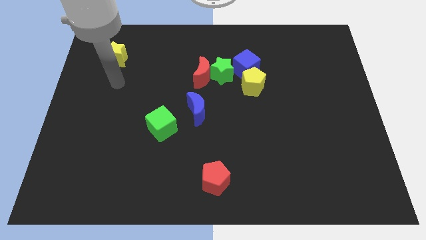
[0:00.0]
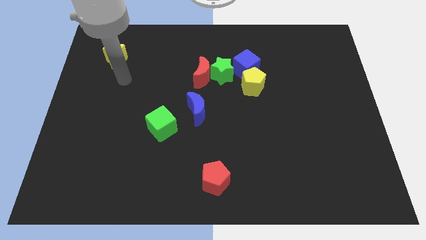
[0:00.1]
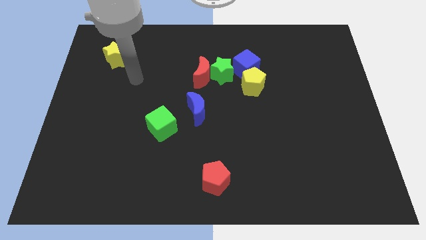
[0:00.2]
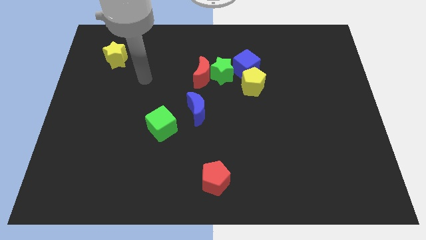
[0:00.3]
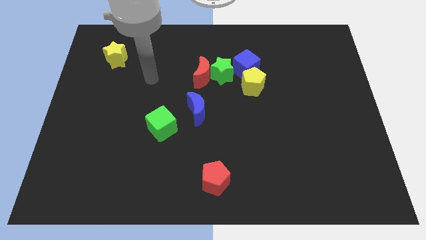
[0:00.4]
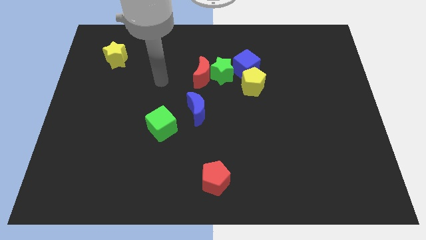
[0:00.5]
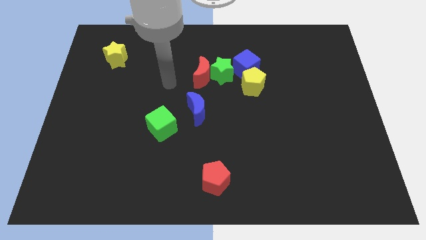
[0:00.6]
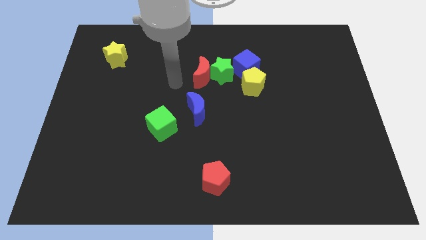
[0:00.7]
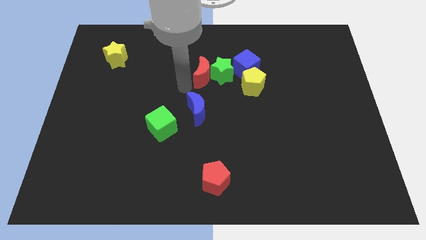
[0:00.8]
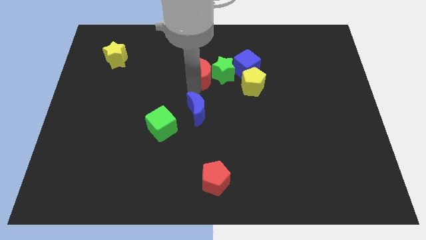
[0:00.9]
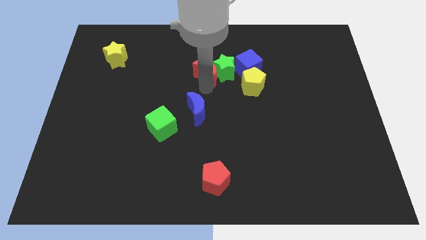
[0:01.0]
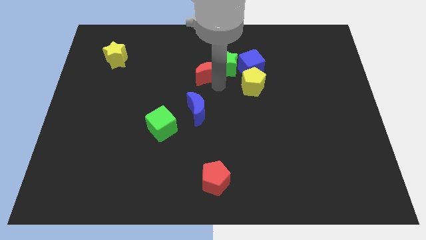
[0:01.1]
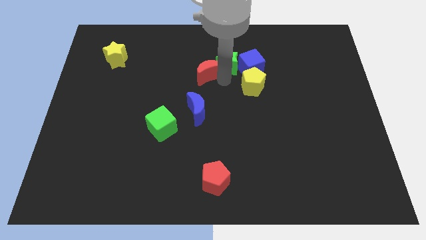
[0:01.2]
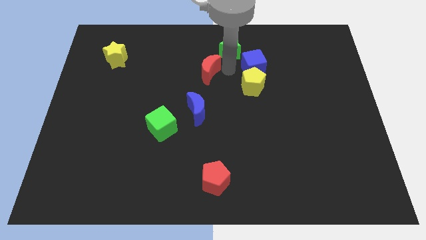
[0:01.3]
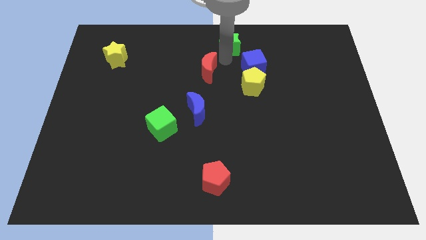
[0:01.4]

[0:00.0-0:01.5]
move the red moon away from the green star

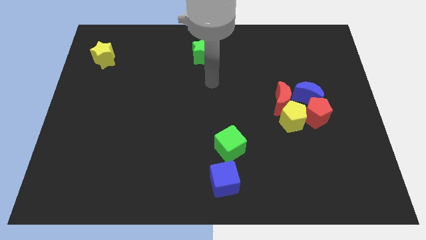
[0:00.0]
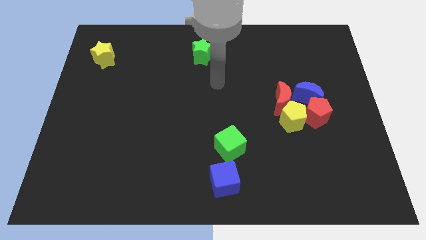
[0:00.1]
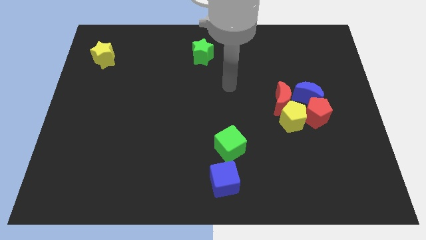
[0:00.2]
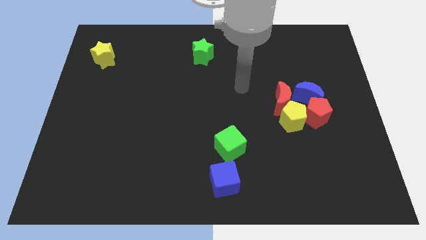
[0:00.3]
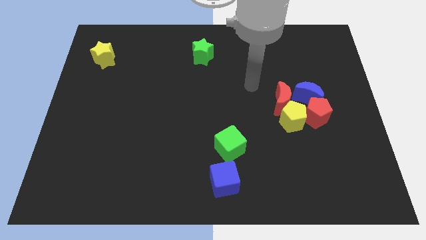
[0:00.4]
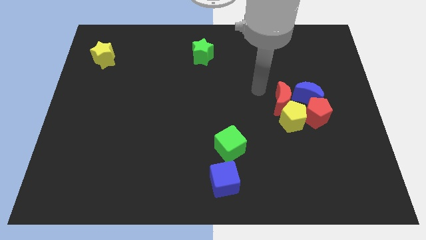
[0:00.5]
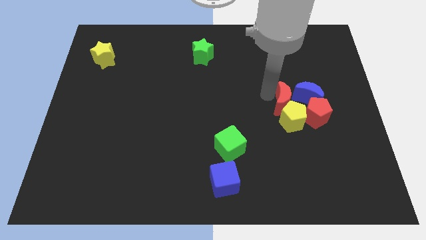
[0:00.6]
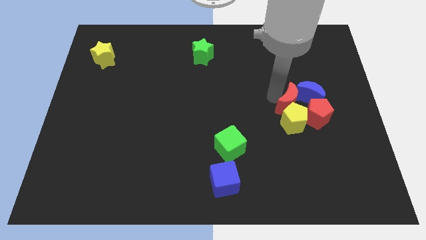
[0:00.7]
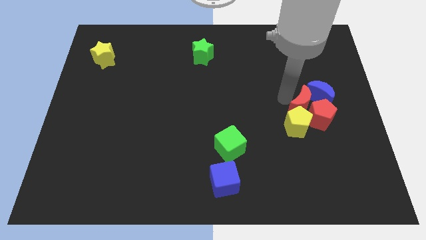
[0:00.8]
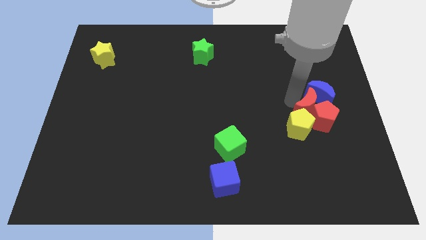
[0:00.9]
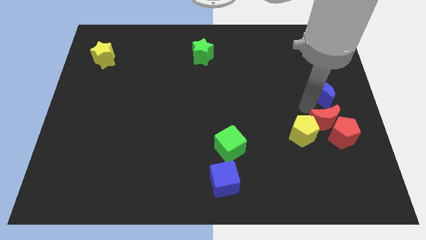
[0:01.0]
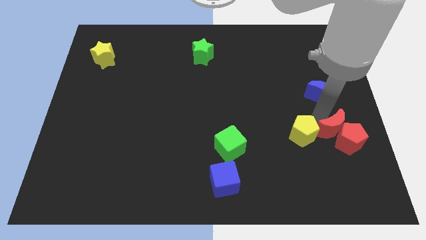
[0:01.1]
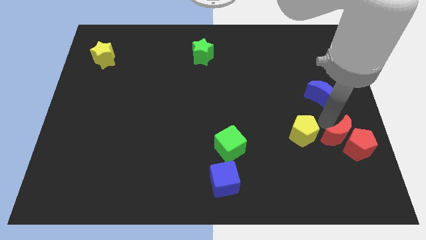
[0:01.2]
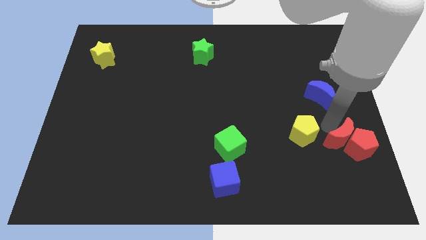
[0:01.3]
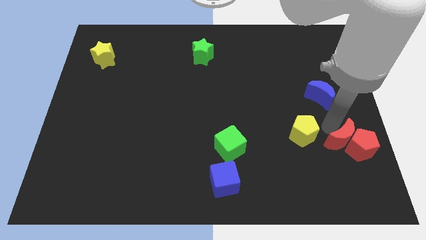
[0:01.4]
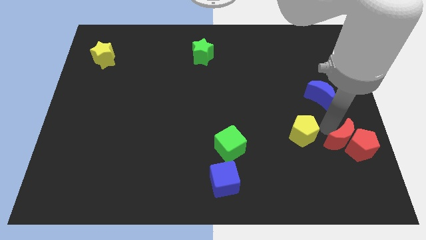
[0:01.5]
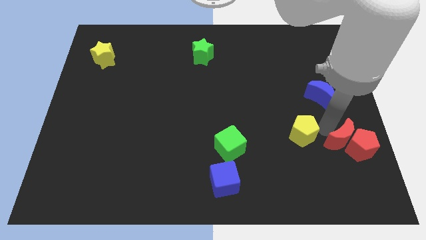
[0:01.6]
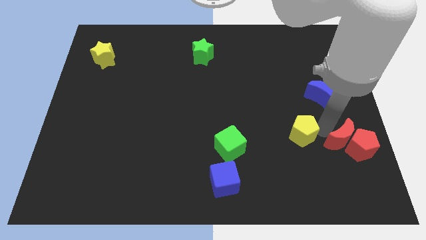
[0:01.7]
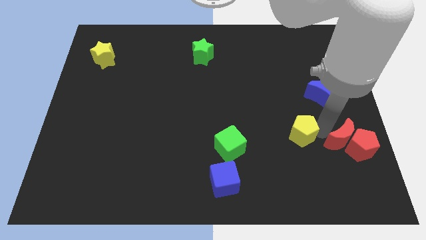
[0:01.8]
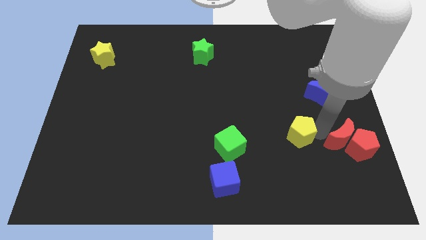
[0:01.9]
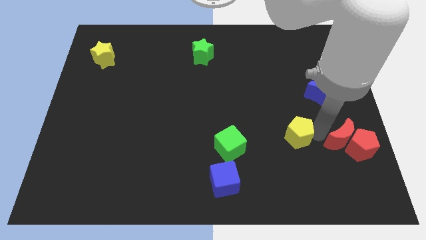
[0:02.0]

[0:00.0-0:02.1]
pull the yellow pentagon apart from the group of blocks

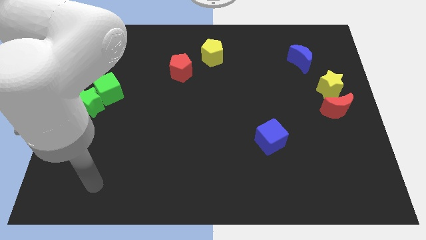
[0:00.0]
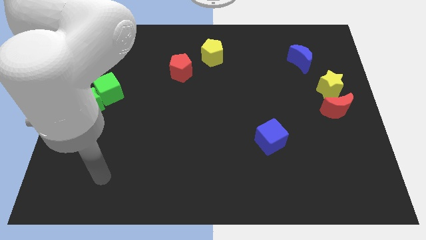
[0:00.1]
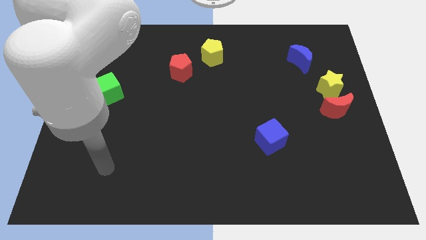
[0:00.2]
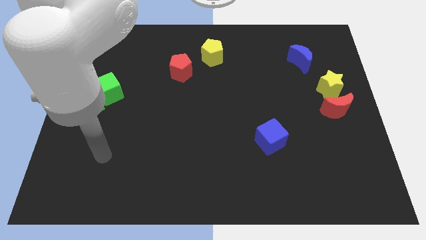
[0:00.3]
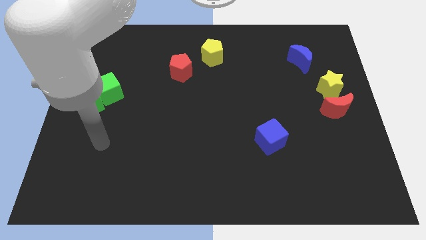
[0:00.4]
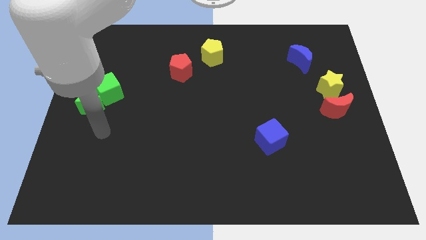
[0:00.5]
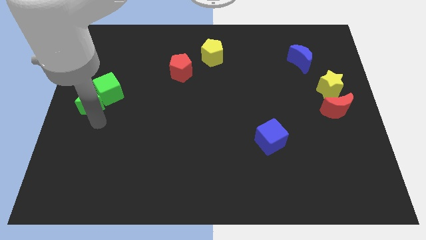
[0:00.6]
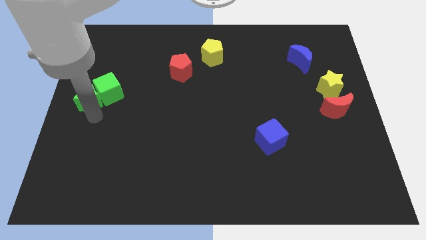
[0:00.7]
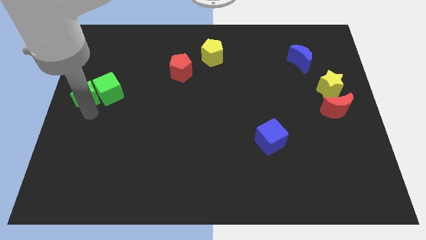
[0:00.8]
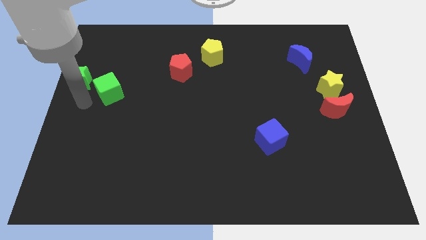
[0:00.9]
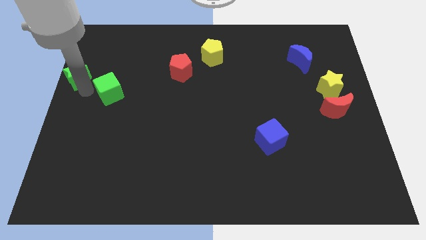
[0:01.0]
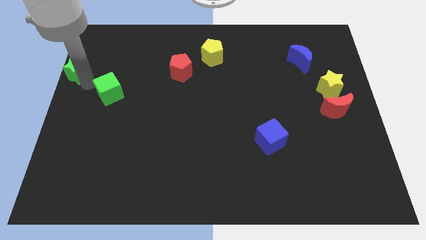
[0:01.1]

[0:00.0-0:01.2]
pull the green cube apart from the green star

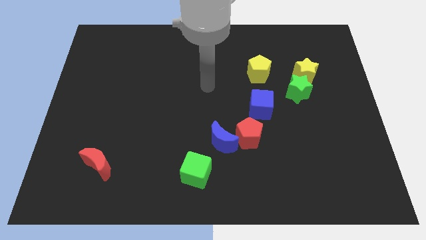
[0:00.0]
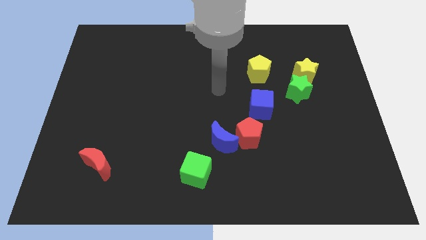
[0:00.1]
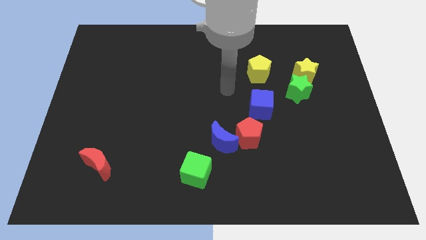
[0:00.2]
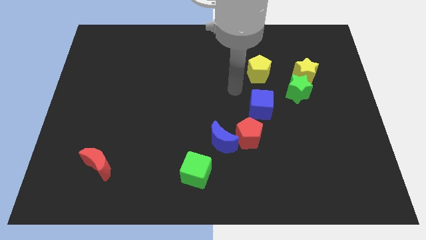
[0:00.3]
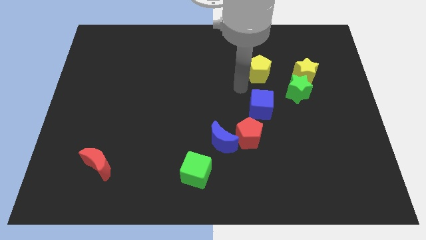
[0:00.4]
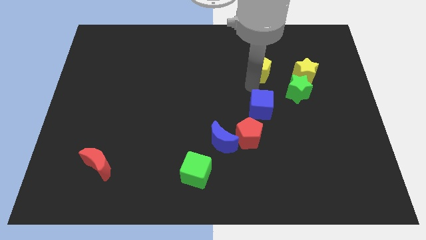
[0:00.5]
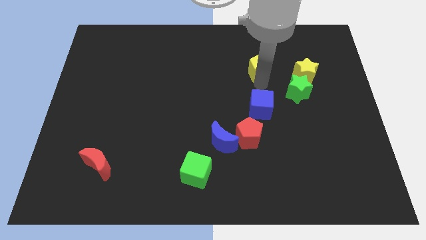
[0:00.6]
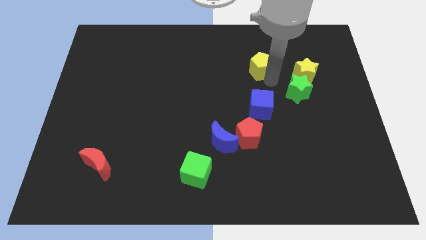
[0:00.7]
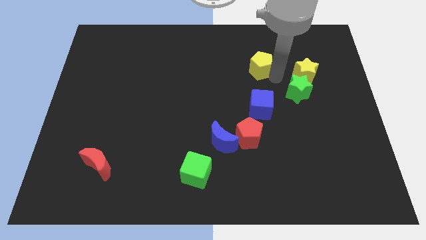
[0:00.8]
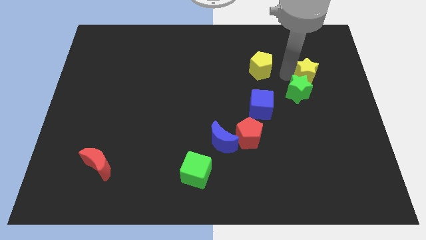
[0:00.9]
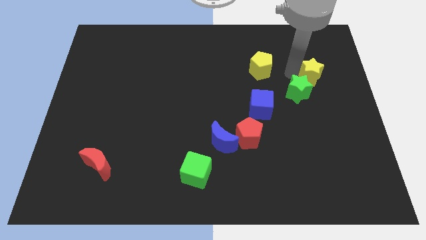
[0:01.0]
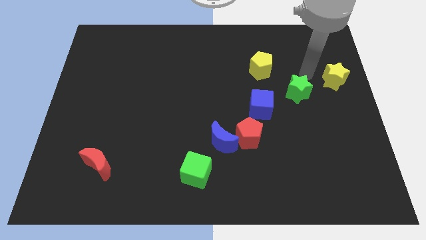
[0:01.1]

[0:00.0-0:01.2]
separate the green star from the yellow star

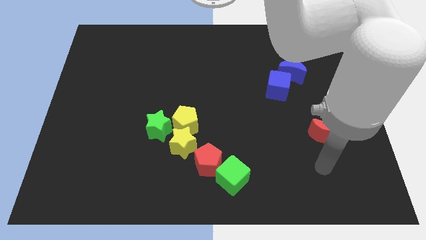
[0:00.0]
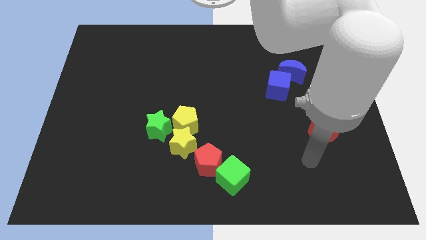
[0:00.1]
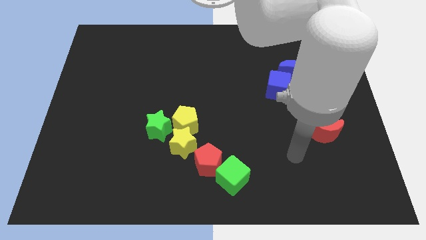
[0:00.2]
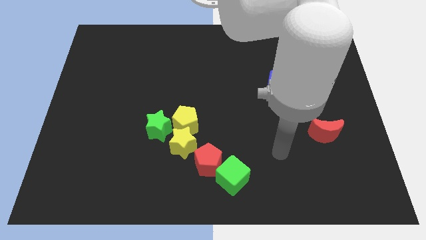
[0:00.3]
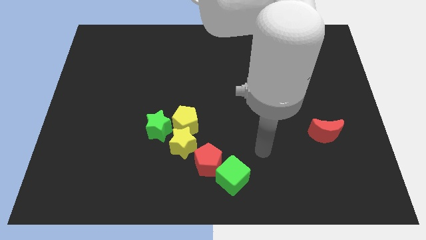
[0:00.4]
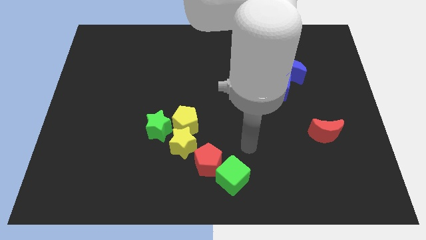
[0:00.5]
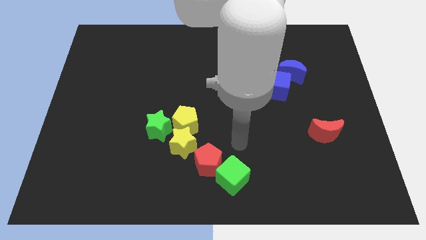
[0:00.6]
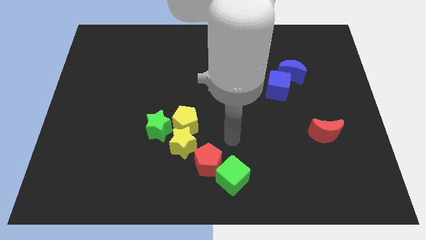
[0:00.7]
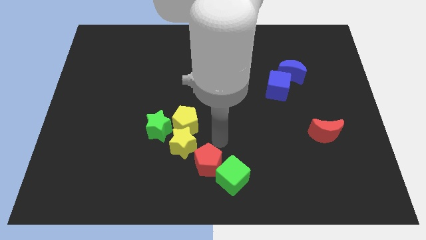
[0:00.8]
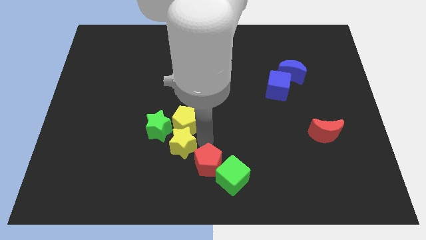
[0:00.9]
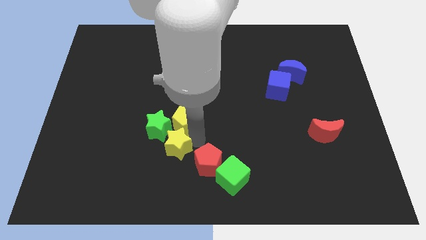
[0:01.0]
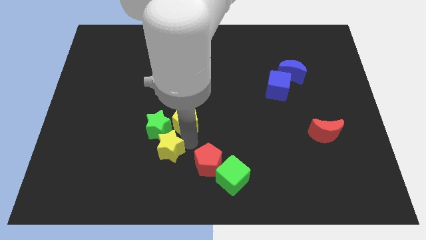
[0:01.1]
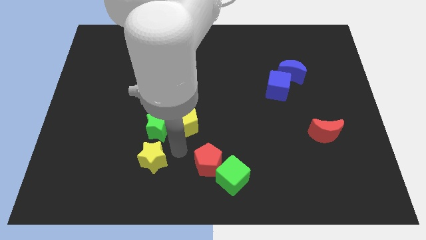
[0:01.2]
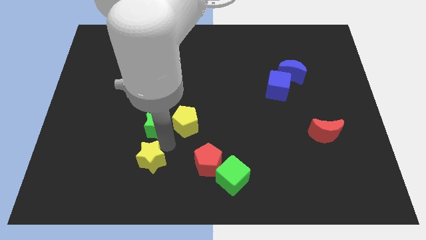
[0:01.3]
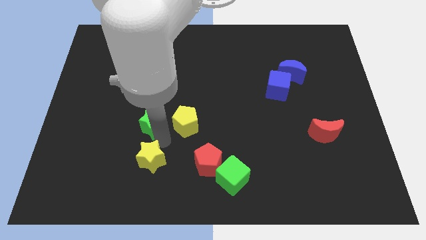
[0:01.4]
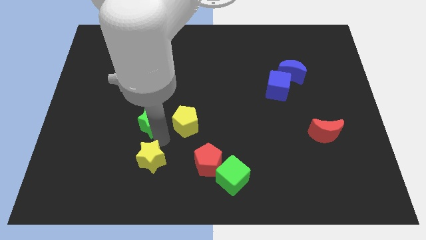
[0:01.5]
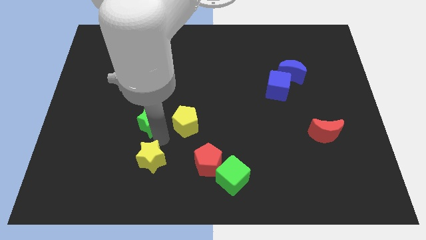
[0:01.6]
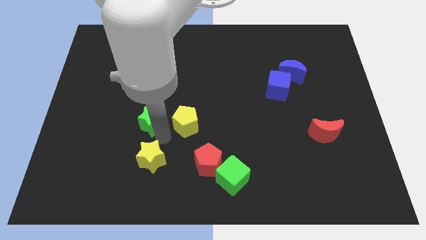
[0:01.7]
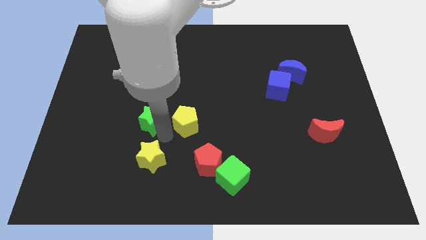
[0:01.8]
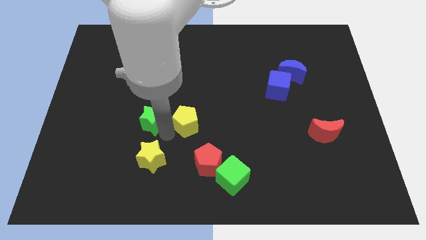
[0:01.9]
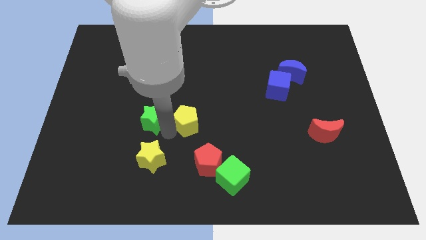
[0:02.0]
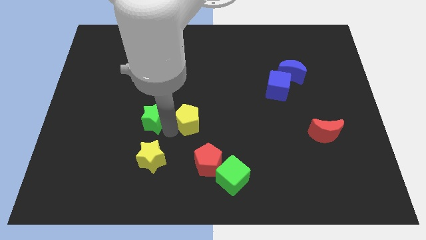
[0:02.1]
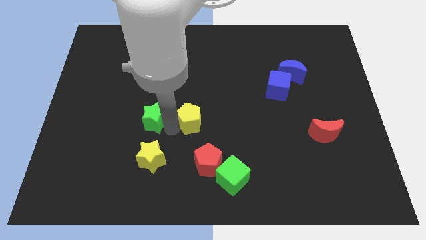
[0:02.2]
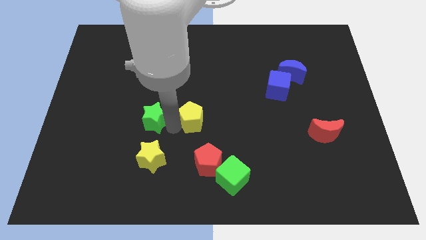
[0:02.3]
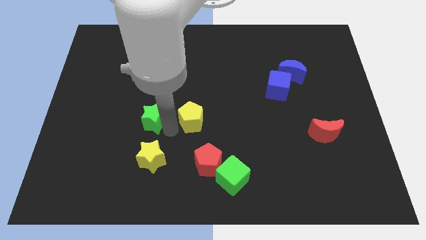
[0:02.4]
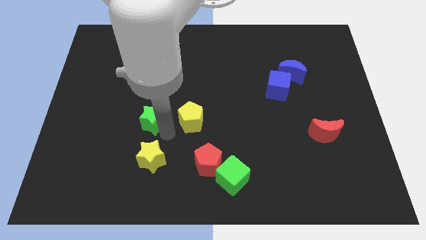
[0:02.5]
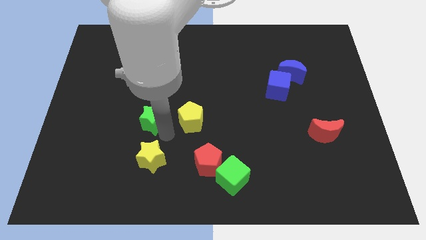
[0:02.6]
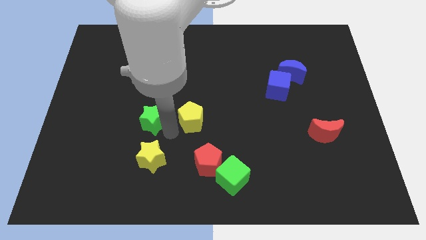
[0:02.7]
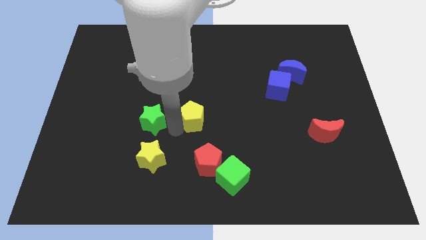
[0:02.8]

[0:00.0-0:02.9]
separate the yellow pentagon from the yellow star and green star

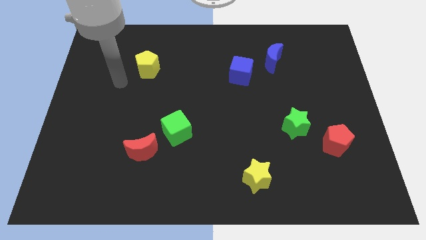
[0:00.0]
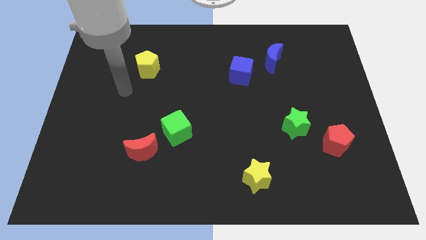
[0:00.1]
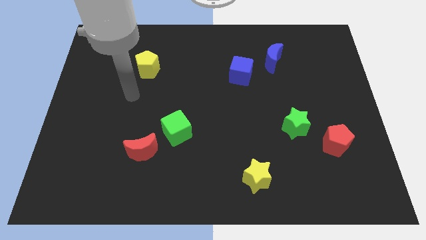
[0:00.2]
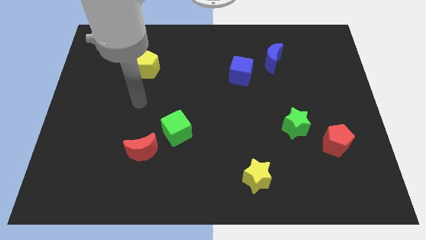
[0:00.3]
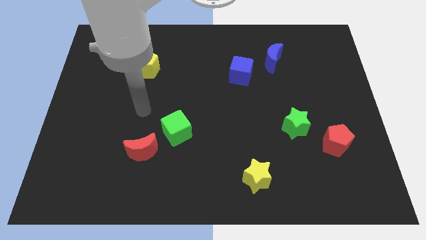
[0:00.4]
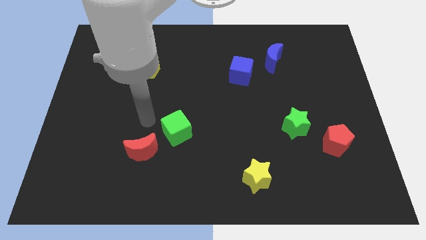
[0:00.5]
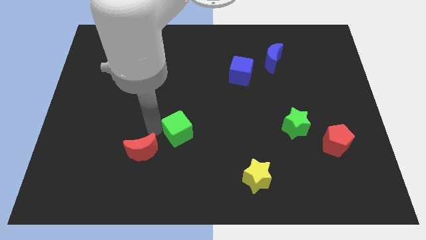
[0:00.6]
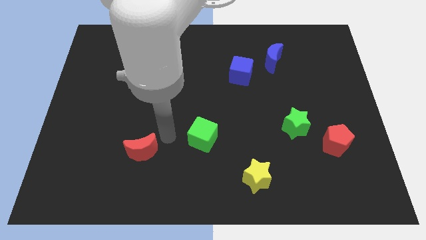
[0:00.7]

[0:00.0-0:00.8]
move the red moon away from the green cube
